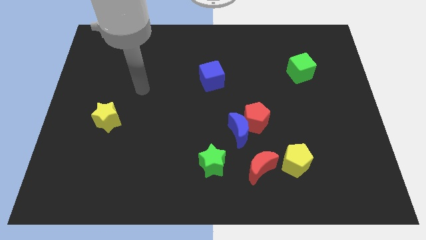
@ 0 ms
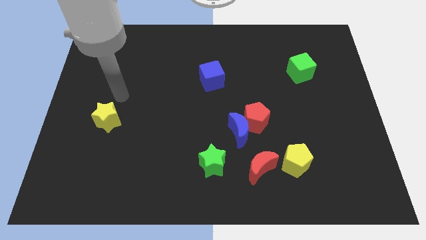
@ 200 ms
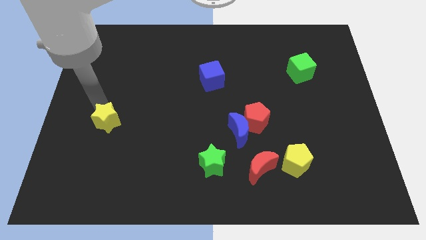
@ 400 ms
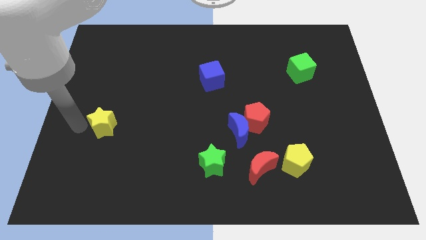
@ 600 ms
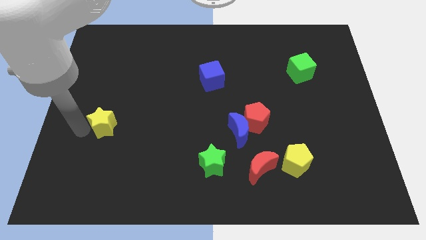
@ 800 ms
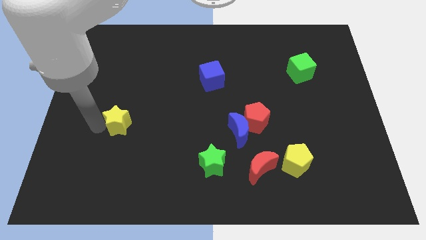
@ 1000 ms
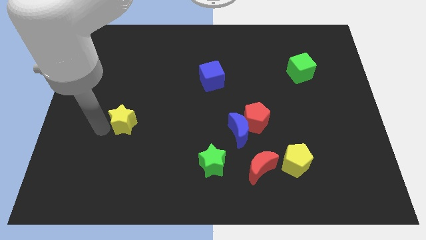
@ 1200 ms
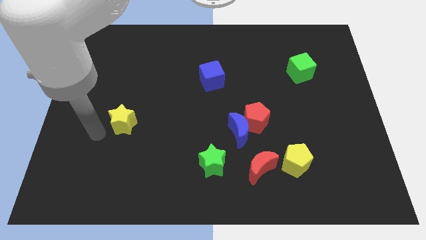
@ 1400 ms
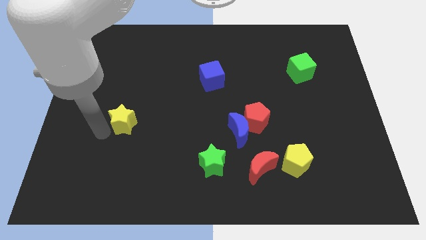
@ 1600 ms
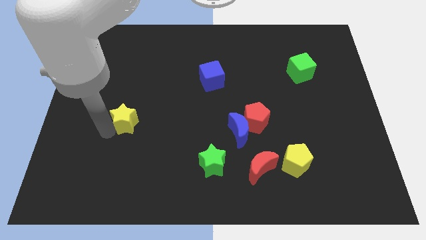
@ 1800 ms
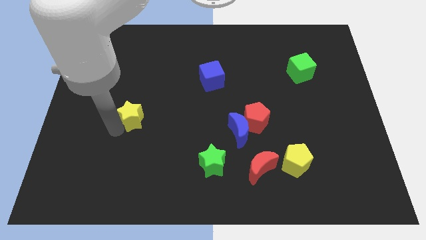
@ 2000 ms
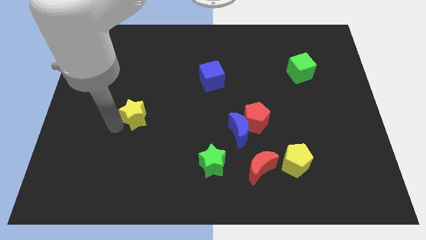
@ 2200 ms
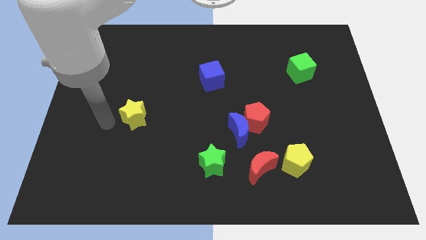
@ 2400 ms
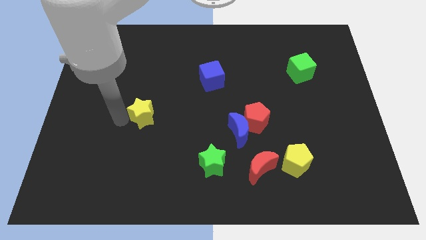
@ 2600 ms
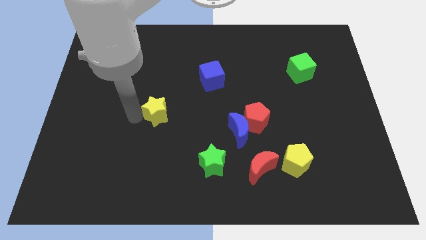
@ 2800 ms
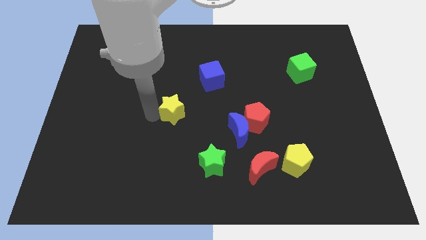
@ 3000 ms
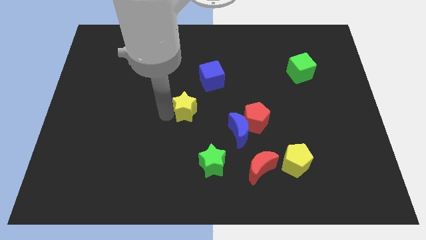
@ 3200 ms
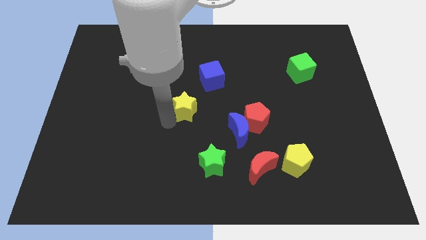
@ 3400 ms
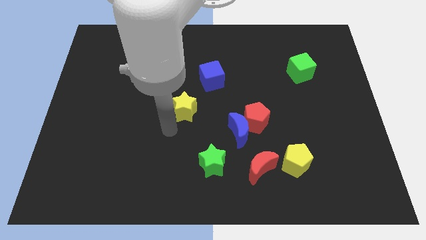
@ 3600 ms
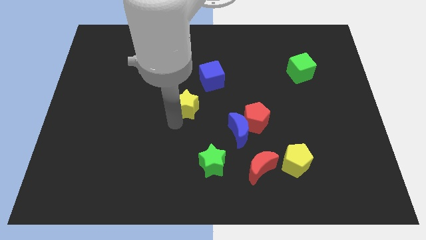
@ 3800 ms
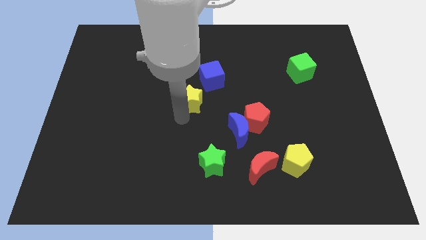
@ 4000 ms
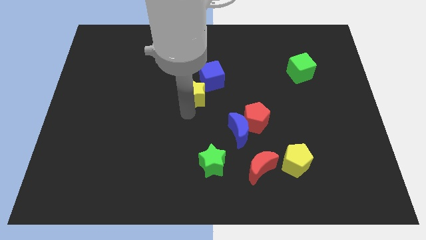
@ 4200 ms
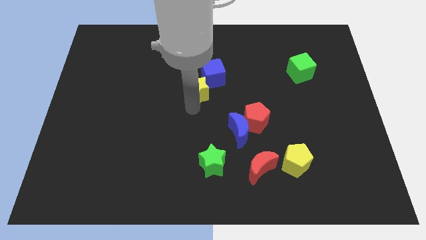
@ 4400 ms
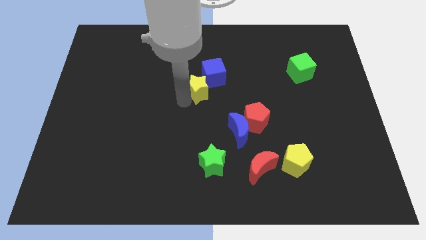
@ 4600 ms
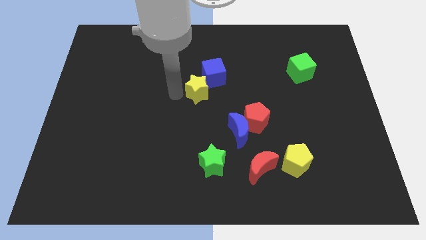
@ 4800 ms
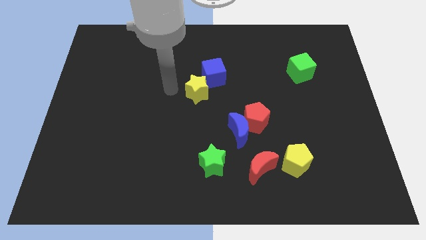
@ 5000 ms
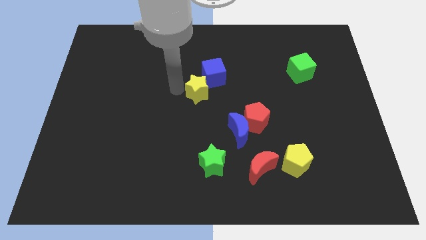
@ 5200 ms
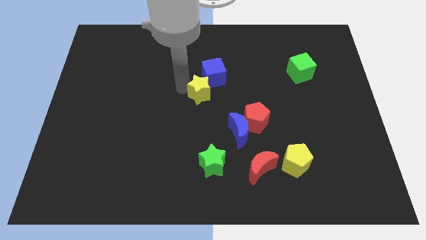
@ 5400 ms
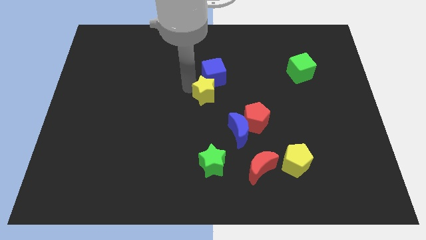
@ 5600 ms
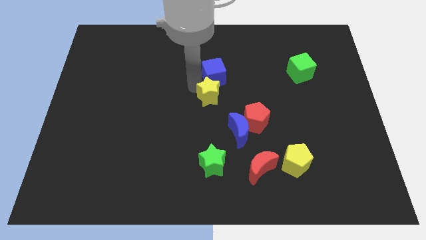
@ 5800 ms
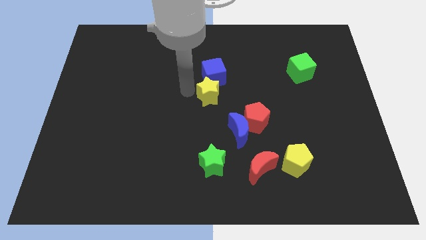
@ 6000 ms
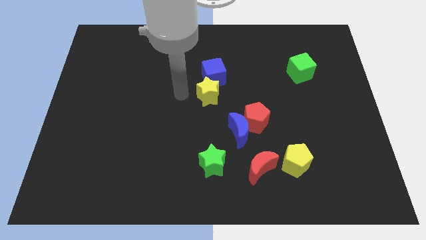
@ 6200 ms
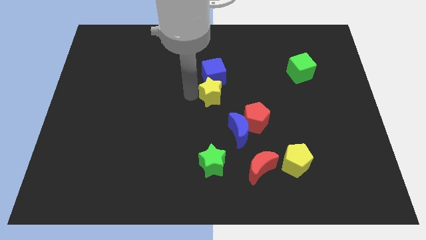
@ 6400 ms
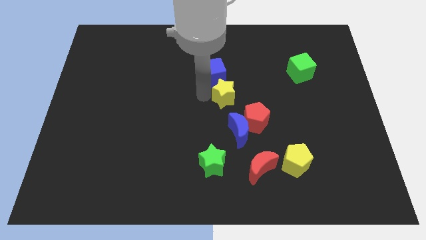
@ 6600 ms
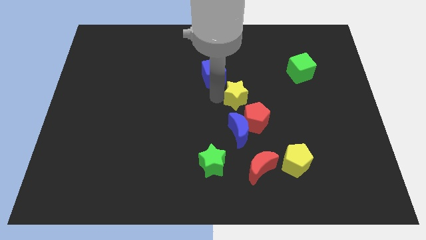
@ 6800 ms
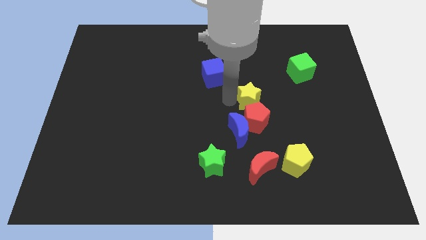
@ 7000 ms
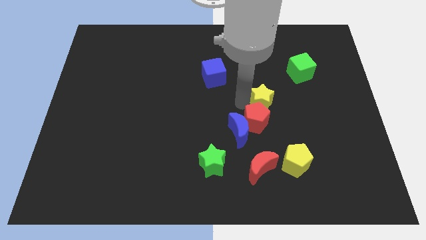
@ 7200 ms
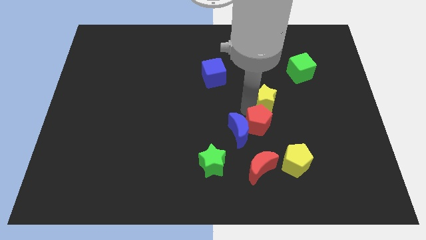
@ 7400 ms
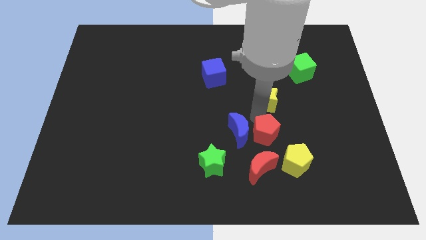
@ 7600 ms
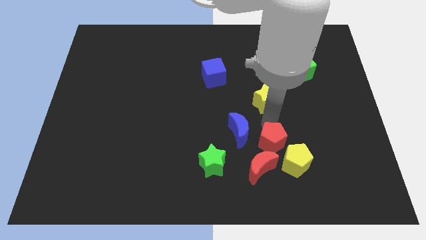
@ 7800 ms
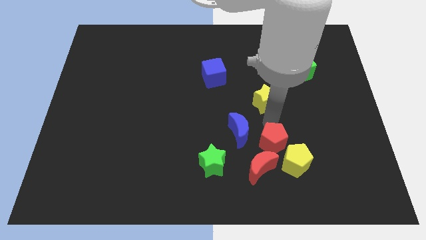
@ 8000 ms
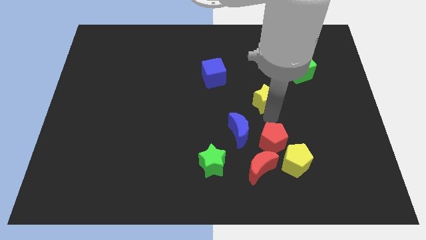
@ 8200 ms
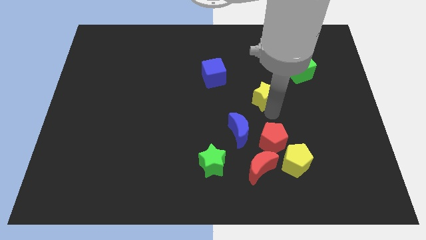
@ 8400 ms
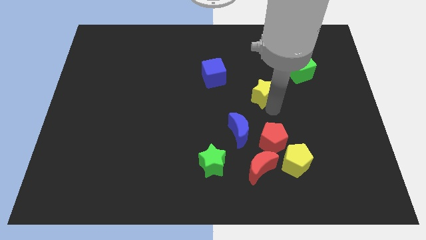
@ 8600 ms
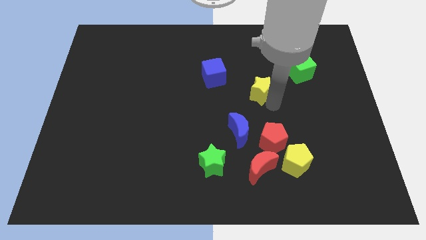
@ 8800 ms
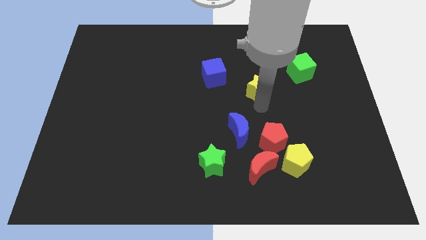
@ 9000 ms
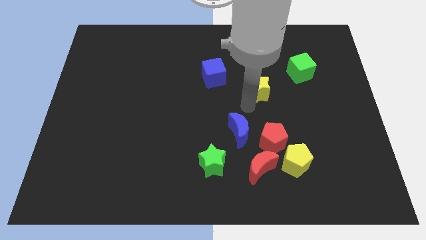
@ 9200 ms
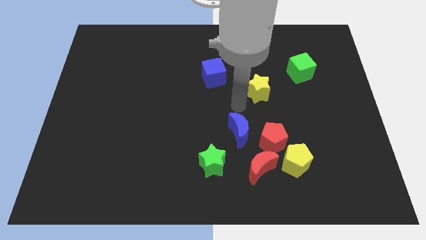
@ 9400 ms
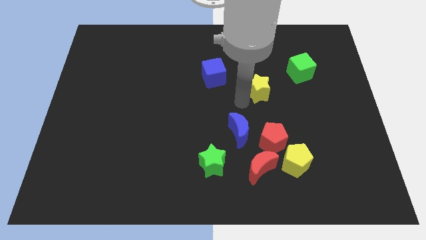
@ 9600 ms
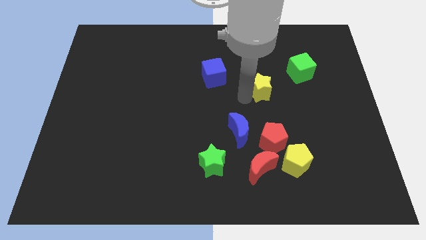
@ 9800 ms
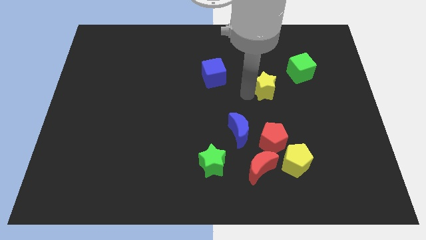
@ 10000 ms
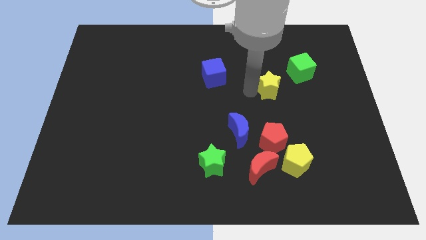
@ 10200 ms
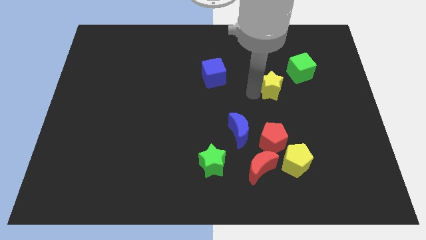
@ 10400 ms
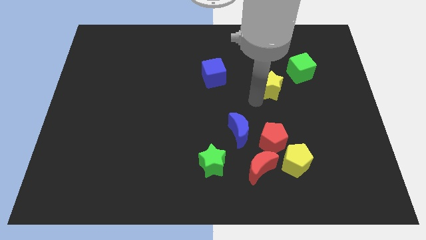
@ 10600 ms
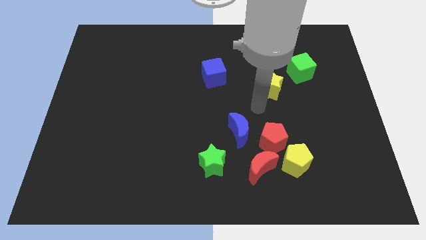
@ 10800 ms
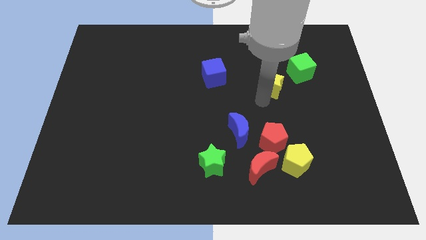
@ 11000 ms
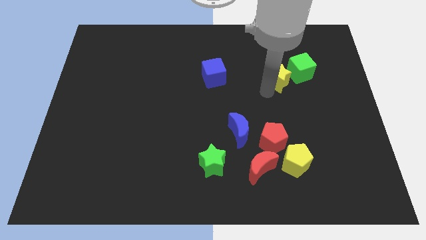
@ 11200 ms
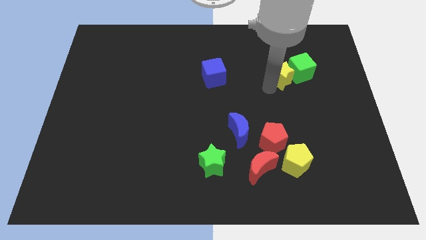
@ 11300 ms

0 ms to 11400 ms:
put the yellow star towards the green cube

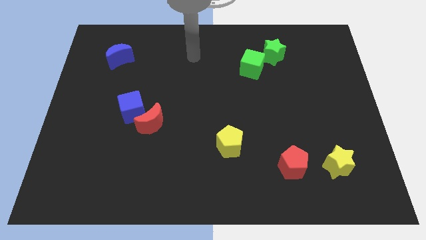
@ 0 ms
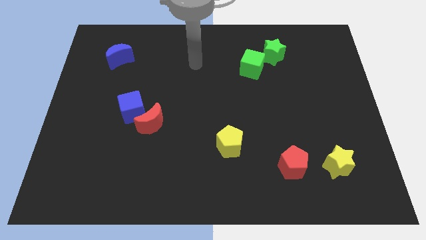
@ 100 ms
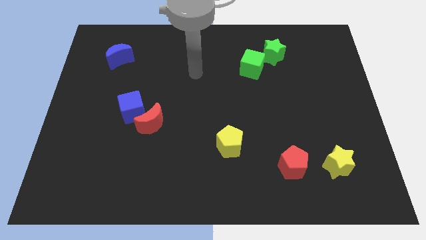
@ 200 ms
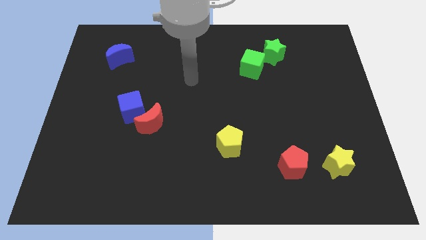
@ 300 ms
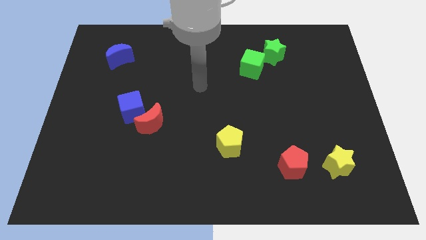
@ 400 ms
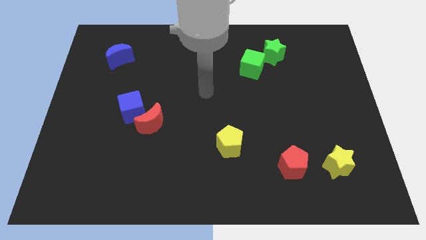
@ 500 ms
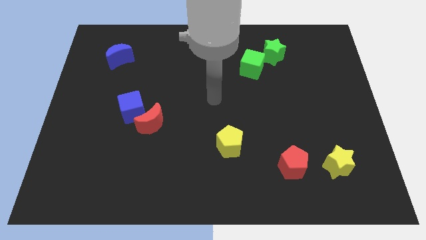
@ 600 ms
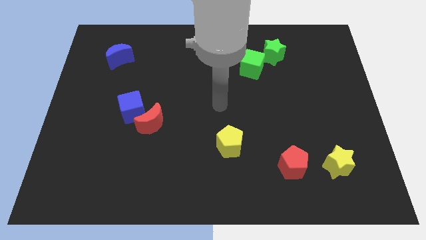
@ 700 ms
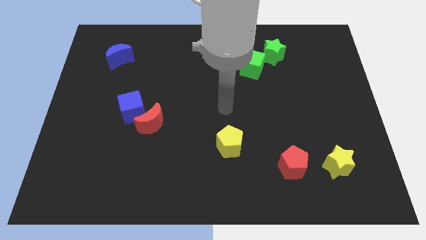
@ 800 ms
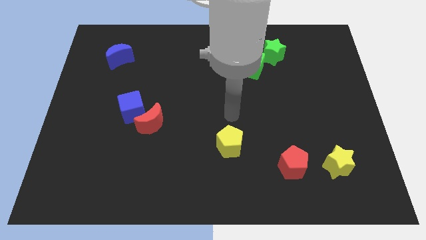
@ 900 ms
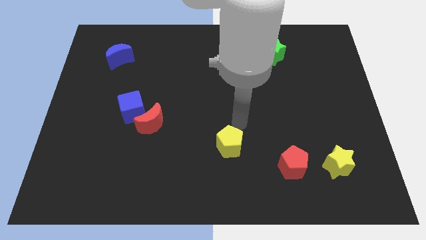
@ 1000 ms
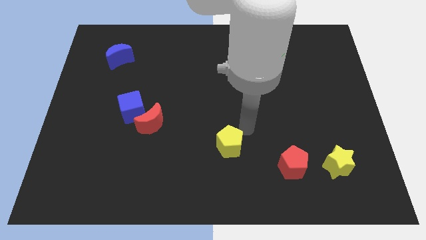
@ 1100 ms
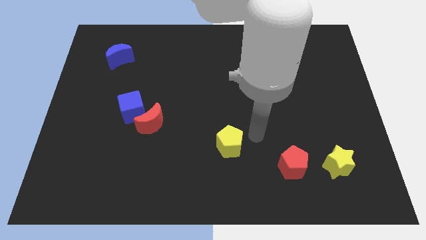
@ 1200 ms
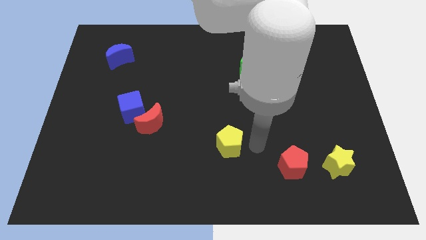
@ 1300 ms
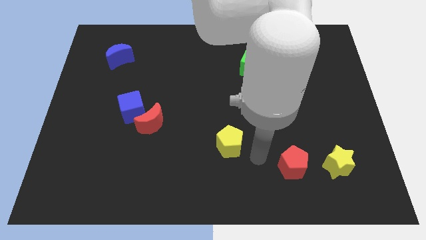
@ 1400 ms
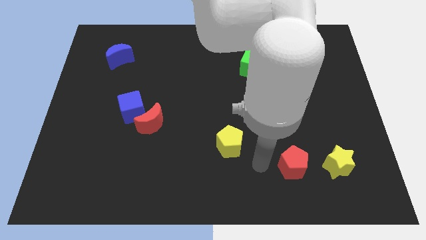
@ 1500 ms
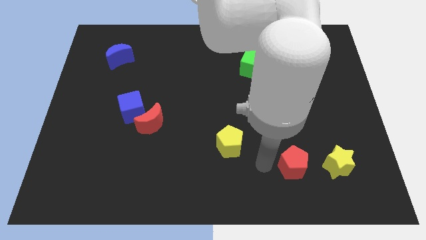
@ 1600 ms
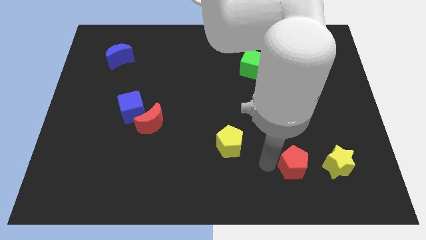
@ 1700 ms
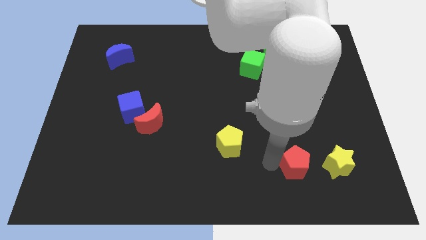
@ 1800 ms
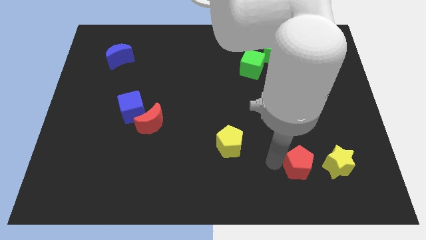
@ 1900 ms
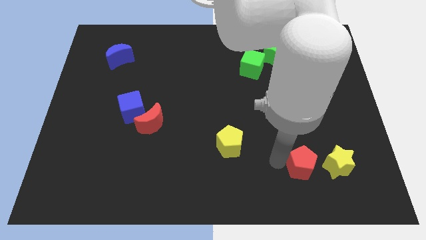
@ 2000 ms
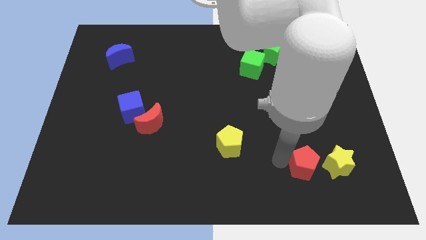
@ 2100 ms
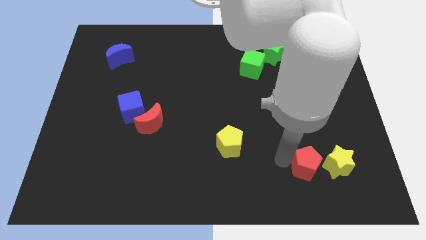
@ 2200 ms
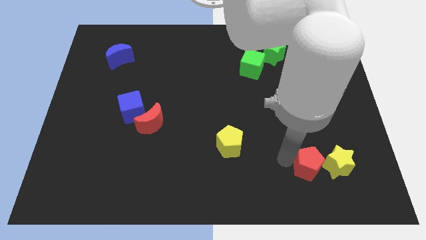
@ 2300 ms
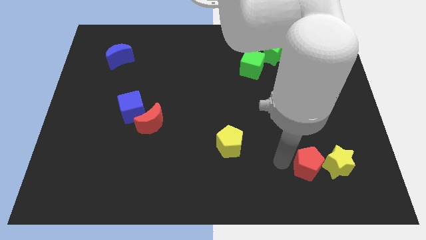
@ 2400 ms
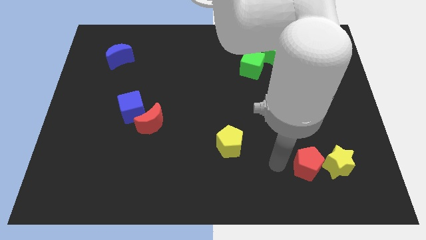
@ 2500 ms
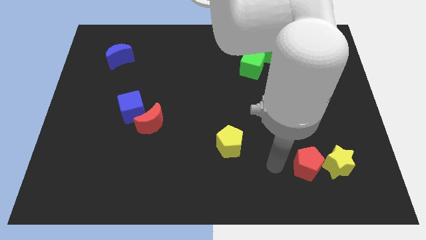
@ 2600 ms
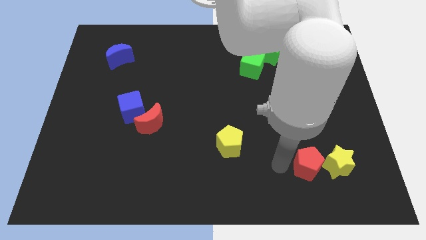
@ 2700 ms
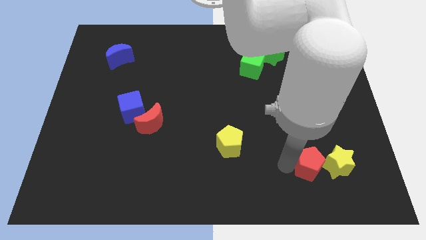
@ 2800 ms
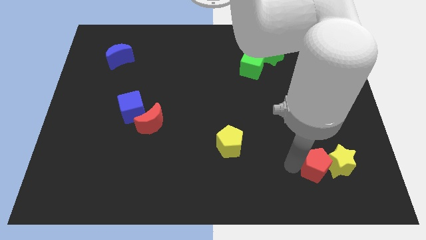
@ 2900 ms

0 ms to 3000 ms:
put the red pentagon close to the yellow star
